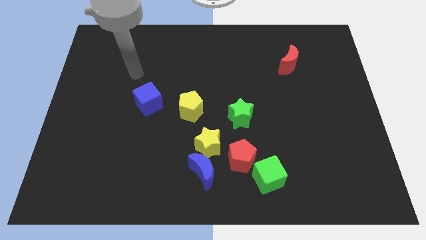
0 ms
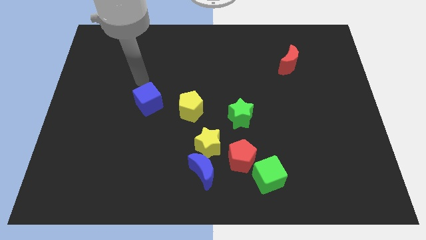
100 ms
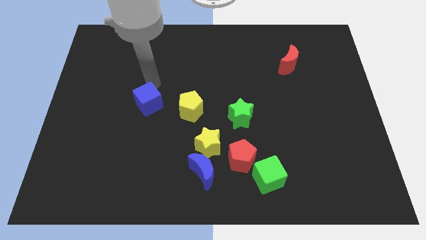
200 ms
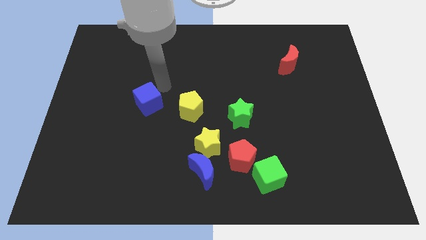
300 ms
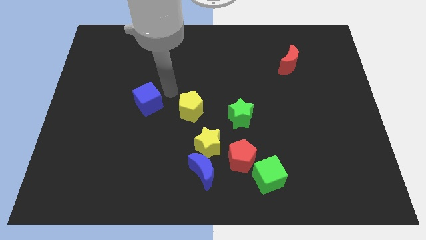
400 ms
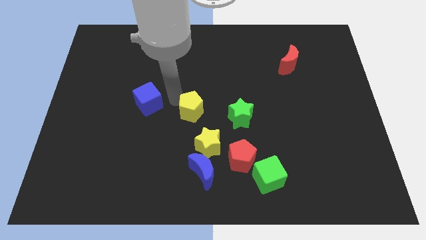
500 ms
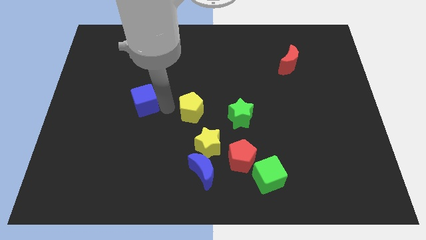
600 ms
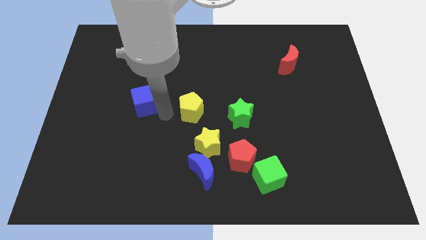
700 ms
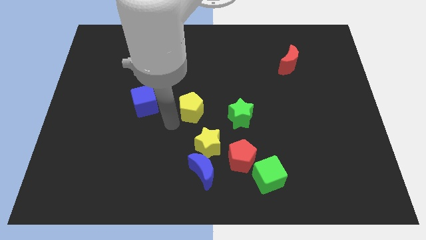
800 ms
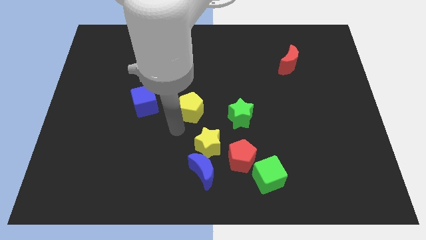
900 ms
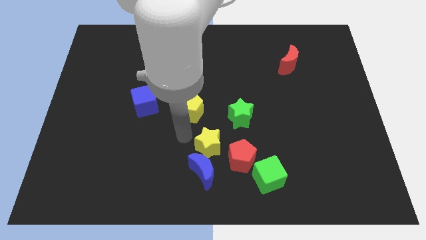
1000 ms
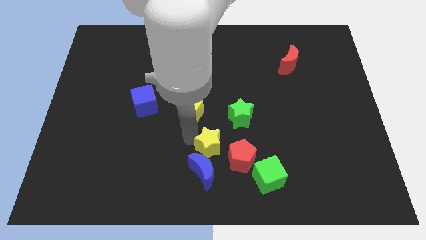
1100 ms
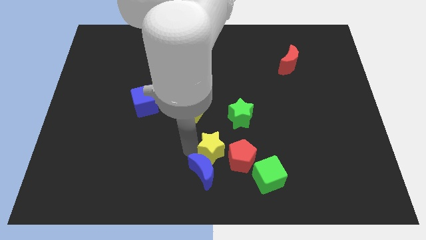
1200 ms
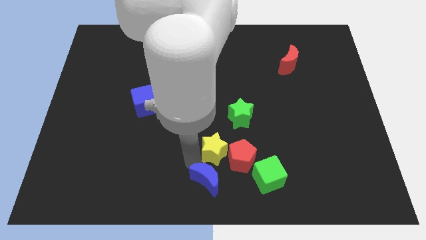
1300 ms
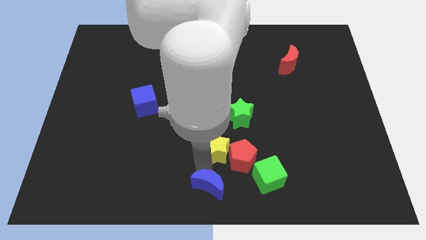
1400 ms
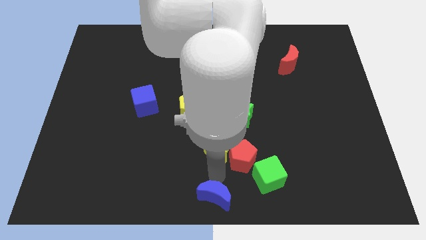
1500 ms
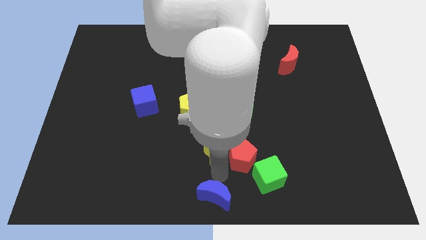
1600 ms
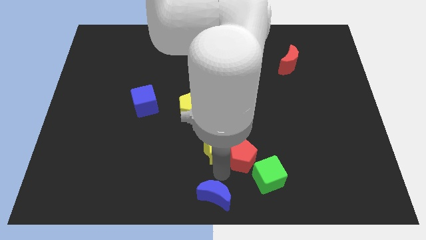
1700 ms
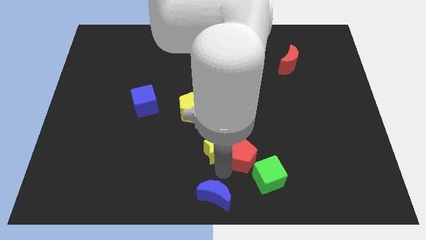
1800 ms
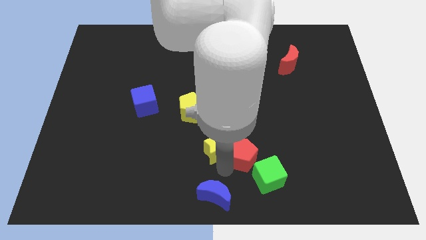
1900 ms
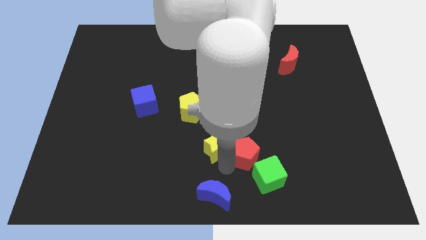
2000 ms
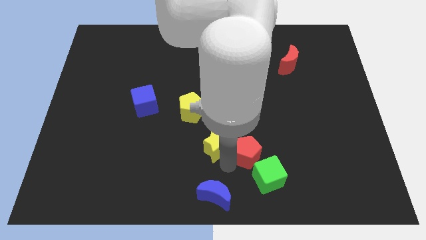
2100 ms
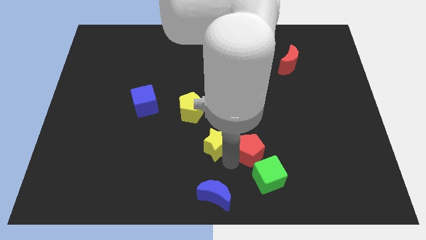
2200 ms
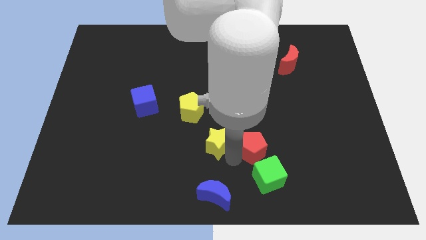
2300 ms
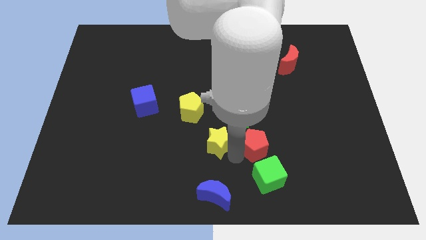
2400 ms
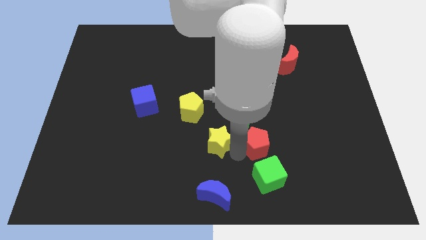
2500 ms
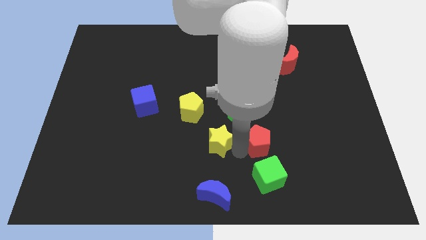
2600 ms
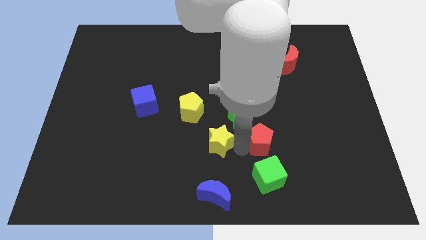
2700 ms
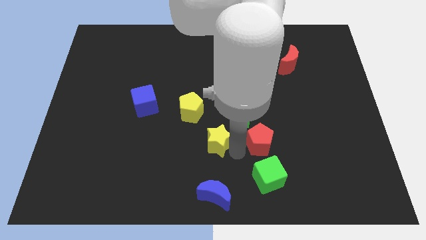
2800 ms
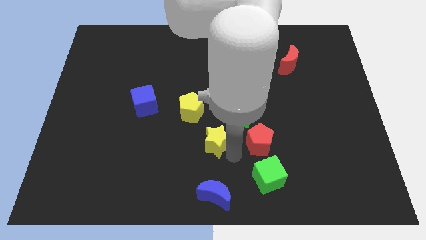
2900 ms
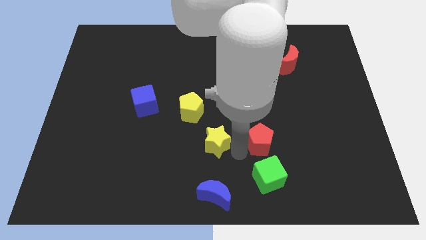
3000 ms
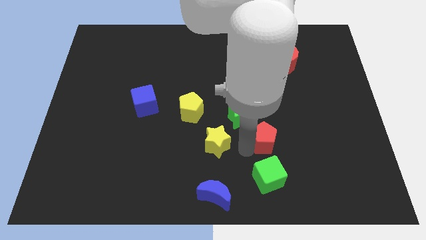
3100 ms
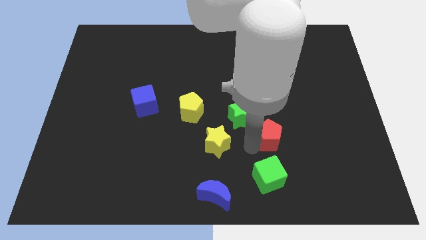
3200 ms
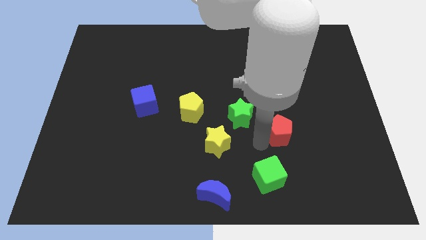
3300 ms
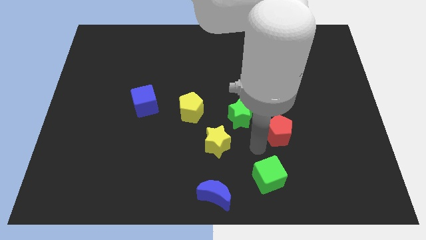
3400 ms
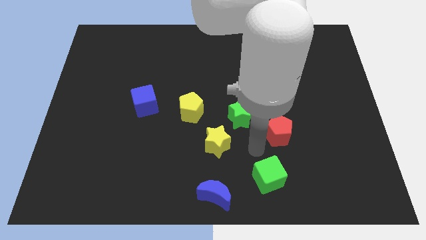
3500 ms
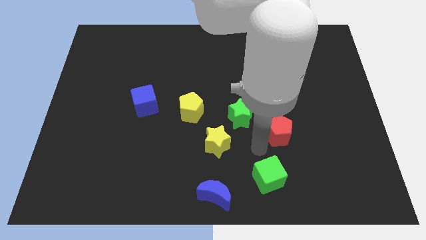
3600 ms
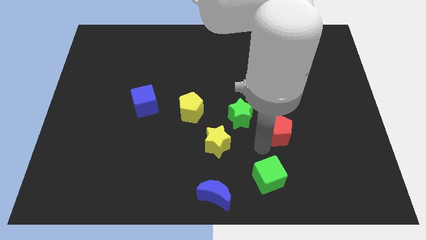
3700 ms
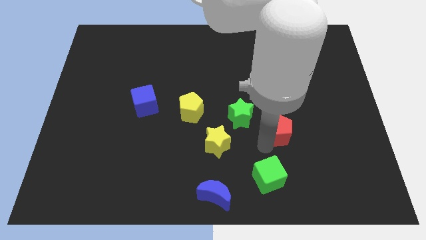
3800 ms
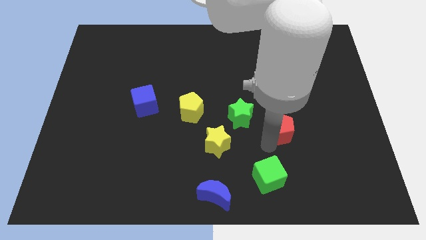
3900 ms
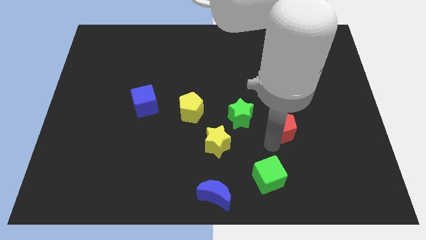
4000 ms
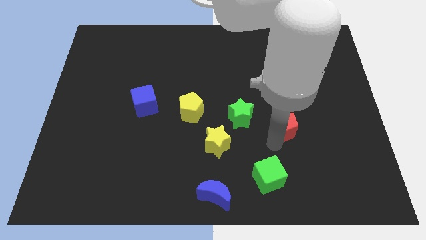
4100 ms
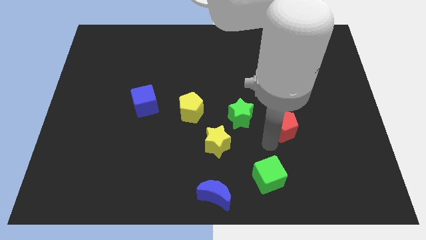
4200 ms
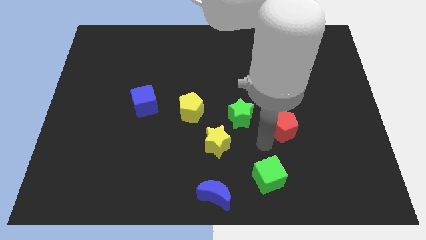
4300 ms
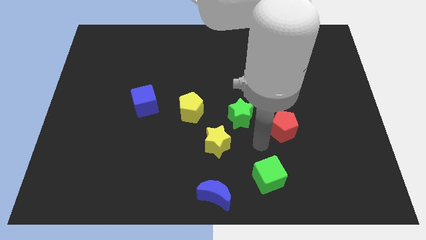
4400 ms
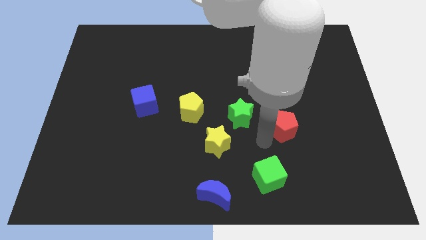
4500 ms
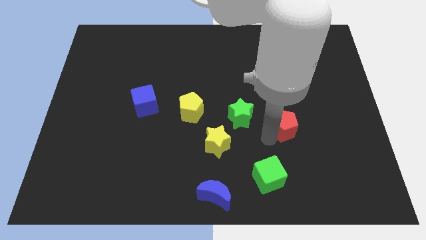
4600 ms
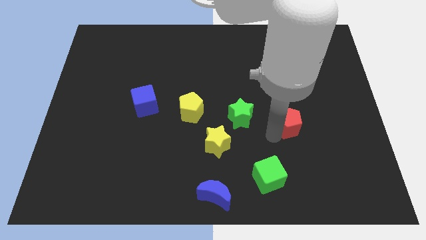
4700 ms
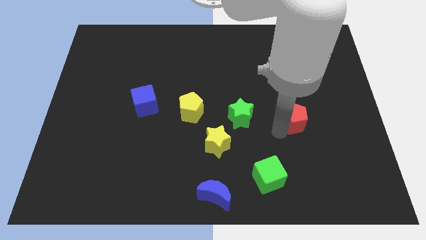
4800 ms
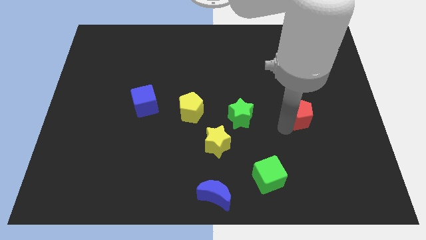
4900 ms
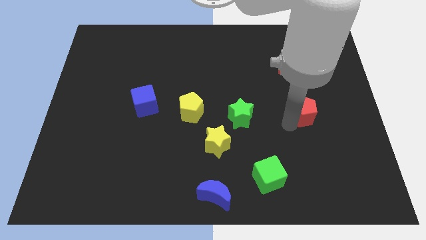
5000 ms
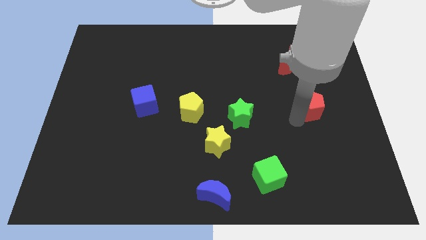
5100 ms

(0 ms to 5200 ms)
push the red pentagon upwards and to the right diagonally

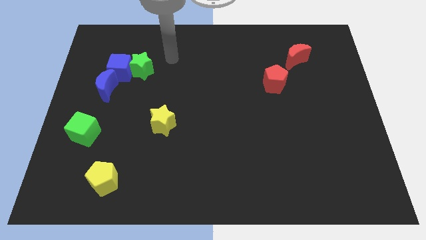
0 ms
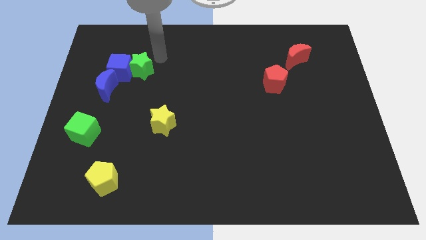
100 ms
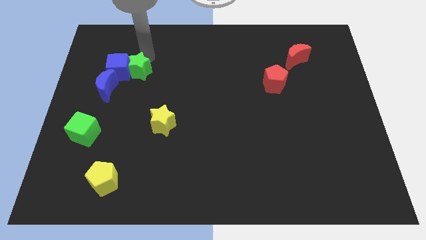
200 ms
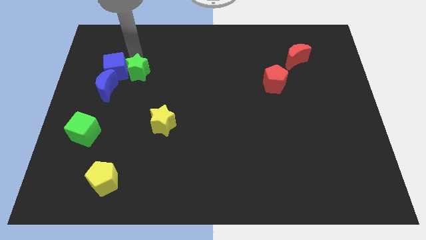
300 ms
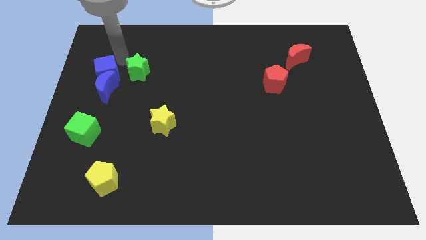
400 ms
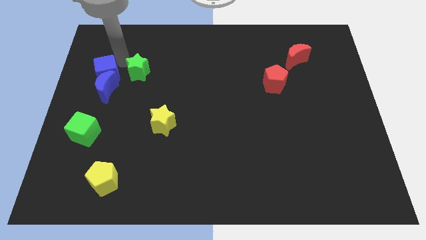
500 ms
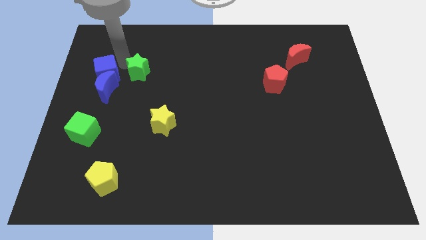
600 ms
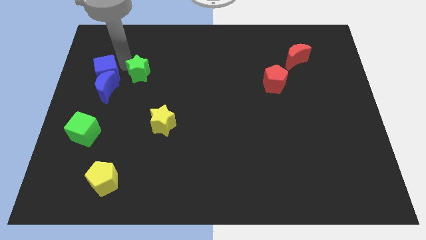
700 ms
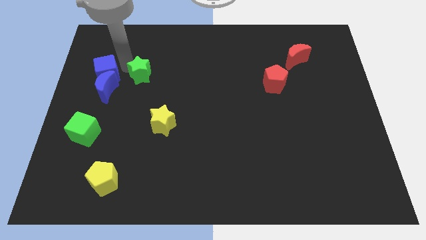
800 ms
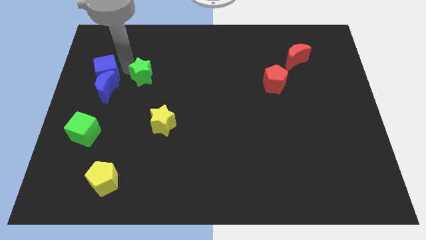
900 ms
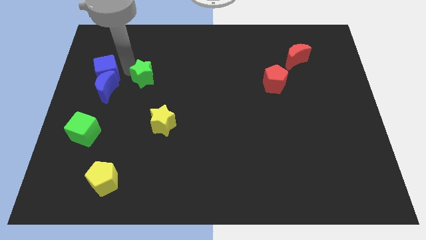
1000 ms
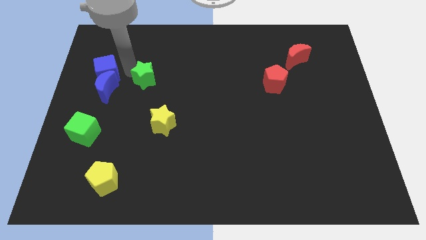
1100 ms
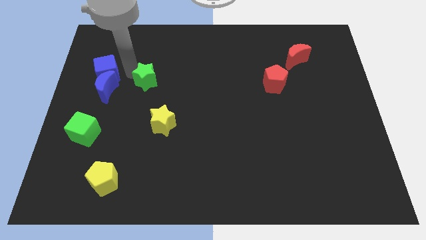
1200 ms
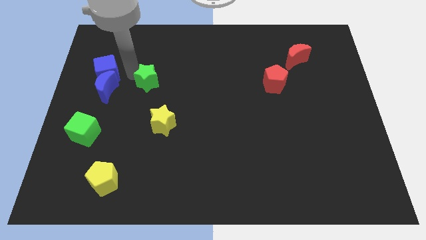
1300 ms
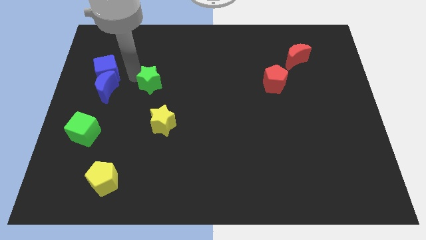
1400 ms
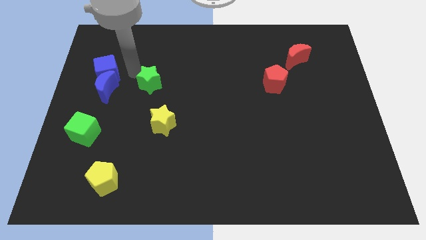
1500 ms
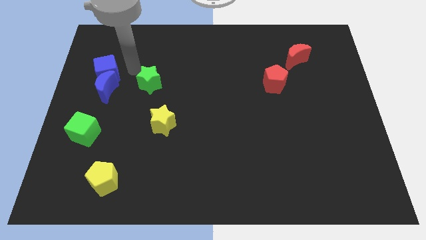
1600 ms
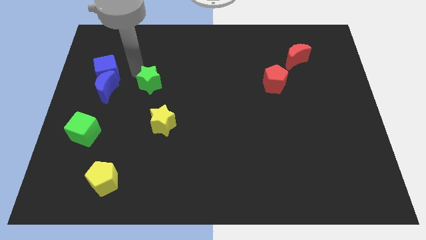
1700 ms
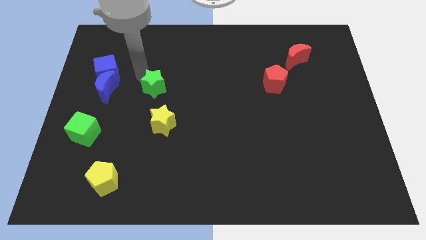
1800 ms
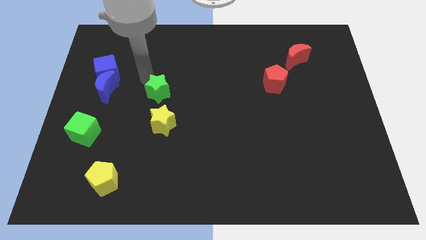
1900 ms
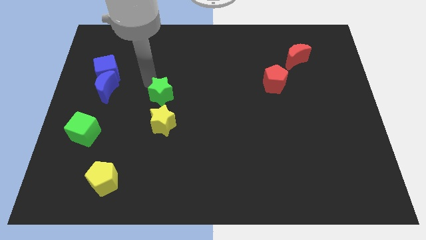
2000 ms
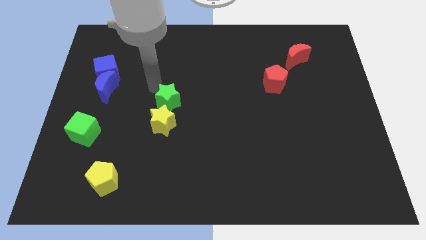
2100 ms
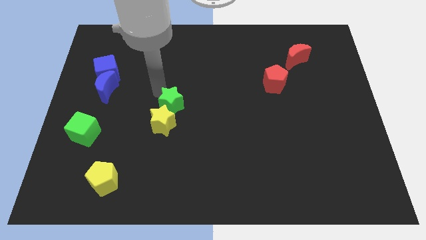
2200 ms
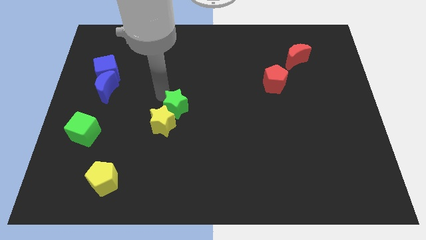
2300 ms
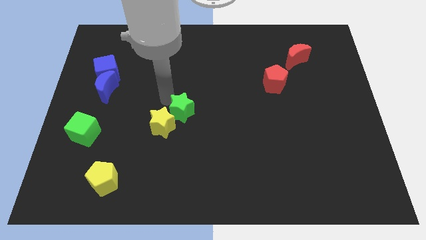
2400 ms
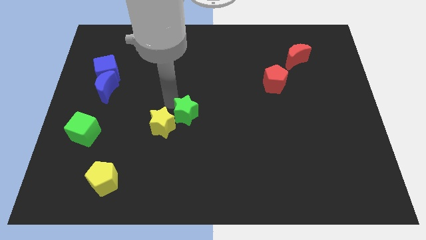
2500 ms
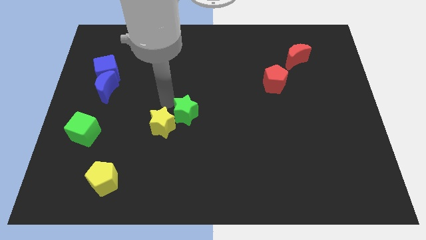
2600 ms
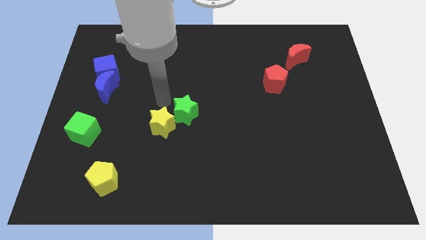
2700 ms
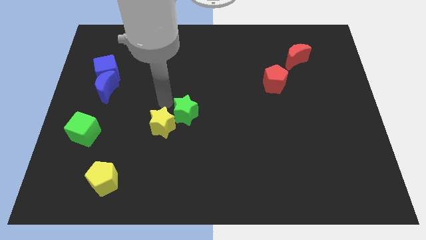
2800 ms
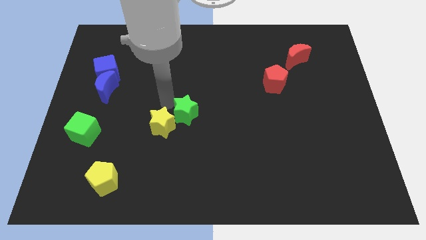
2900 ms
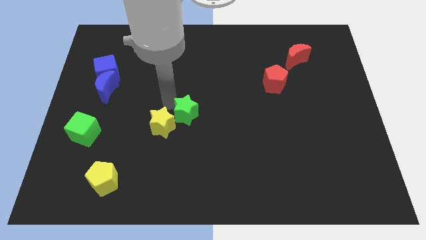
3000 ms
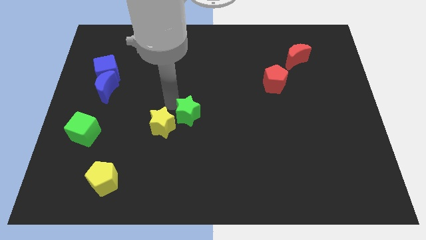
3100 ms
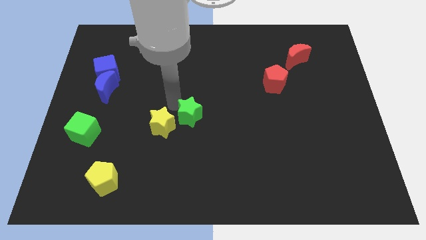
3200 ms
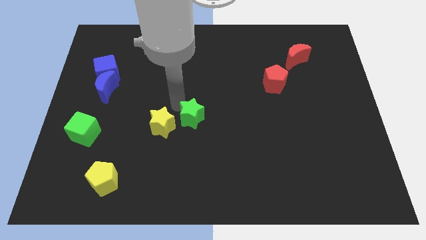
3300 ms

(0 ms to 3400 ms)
move the green star diagonally down and to the right
